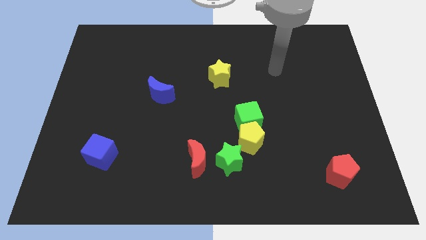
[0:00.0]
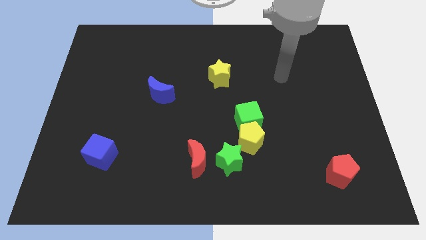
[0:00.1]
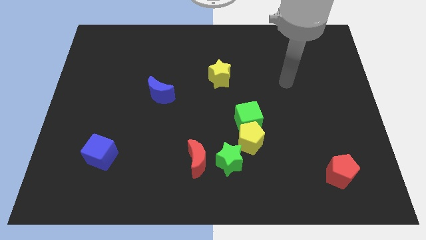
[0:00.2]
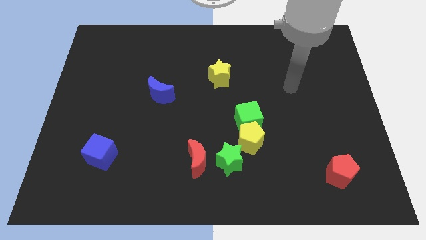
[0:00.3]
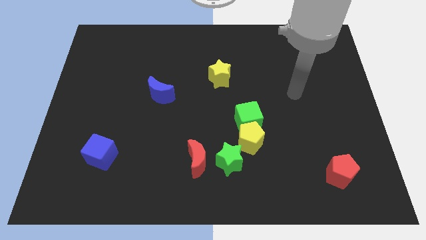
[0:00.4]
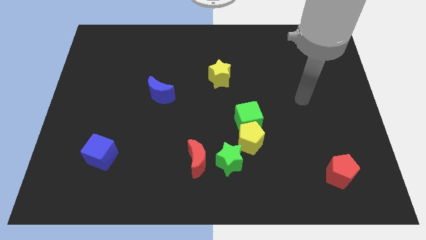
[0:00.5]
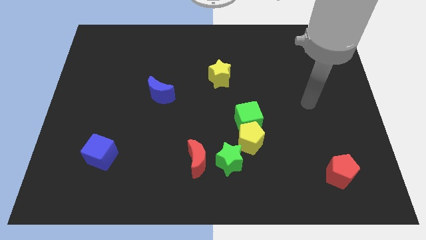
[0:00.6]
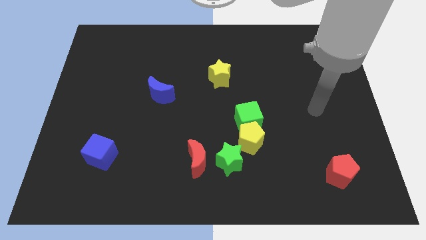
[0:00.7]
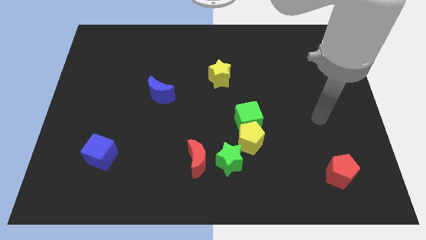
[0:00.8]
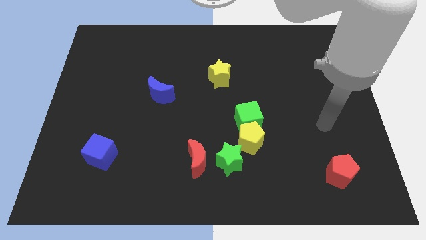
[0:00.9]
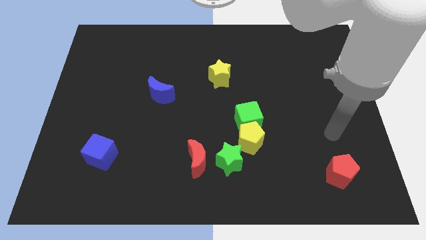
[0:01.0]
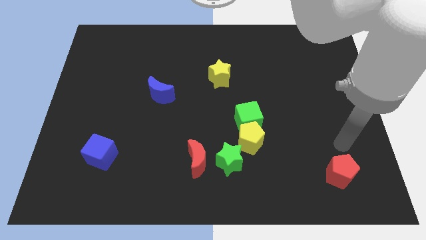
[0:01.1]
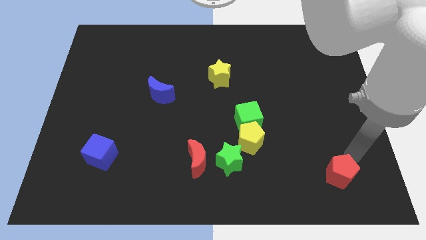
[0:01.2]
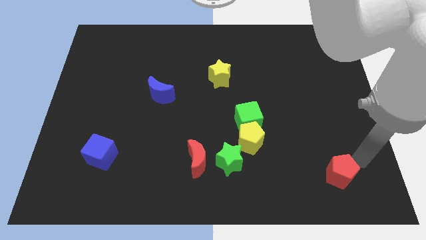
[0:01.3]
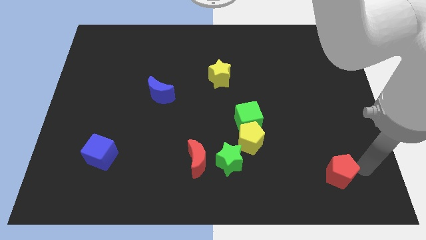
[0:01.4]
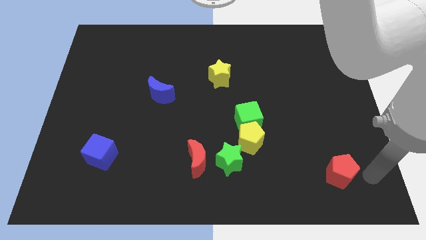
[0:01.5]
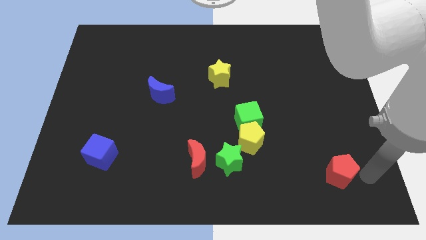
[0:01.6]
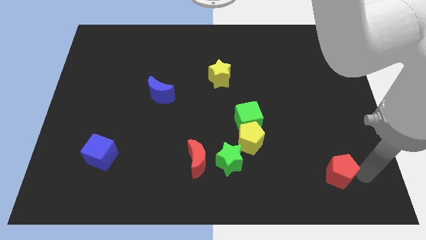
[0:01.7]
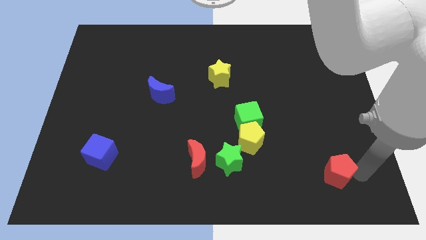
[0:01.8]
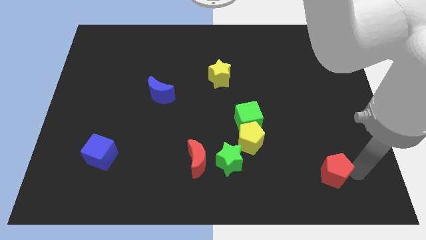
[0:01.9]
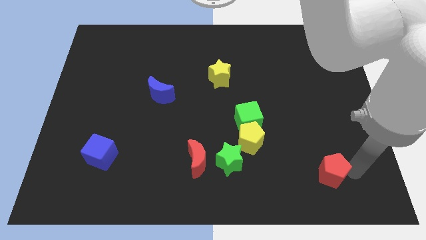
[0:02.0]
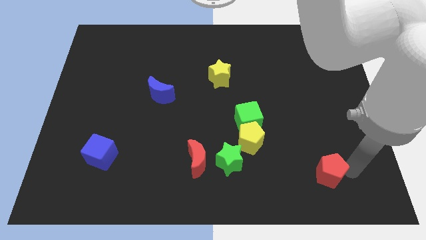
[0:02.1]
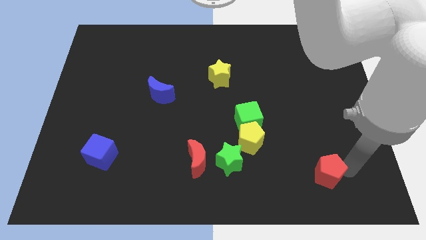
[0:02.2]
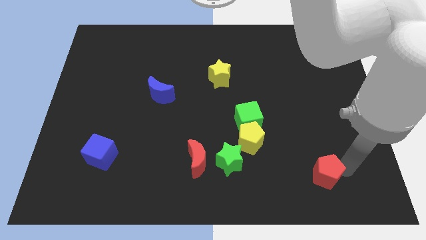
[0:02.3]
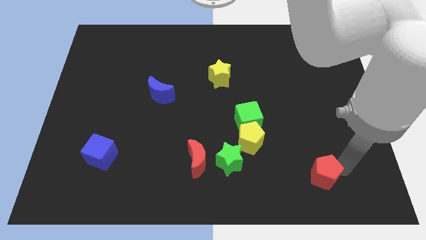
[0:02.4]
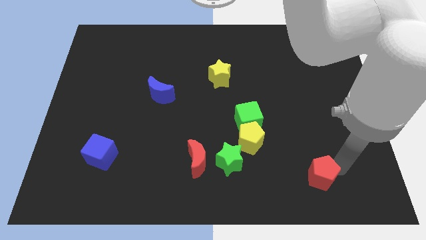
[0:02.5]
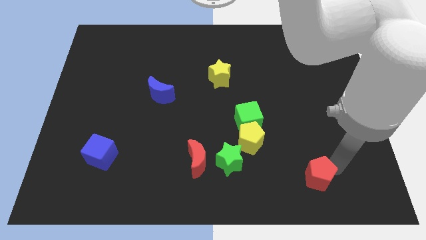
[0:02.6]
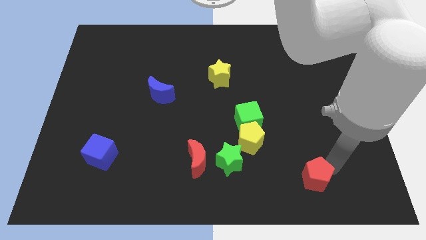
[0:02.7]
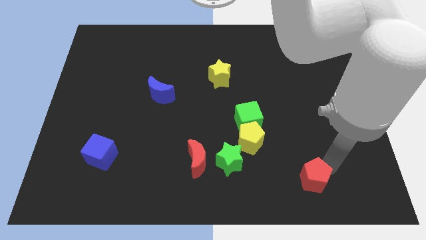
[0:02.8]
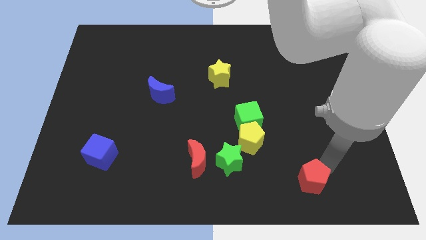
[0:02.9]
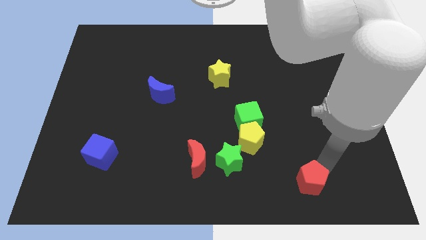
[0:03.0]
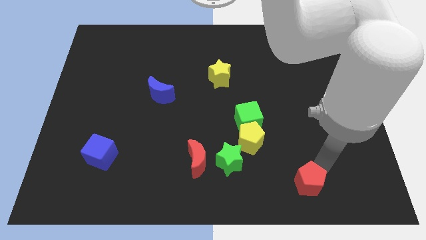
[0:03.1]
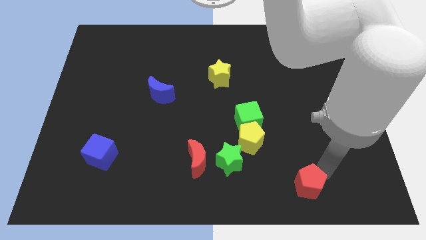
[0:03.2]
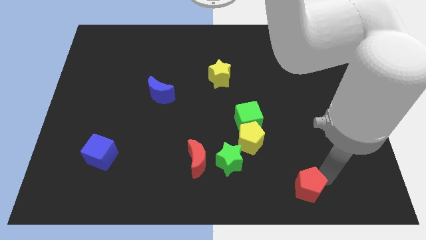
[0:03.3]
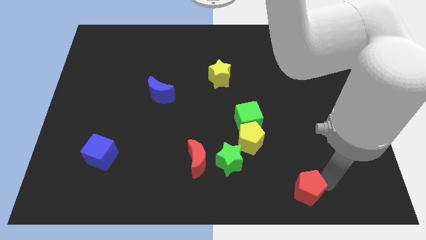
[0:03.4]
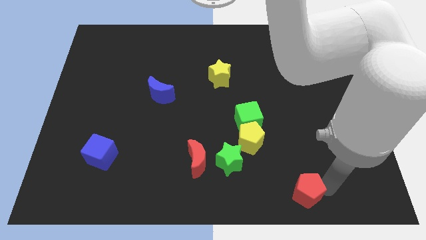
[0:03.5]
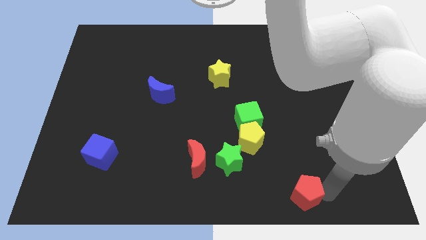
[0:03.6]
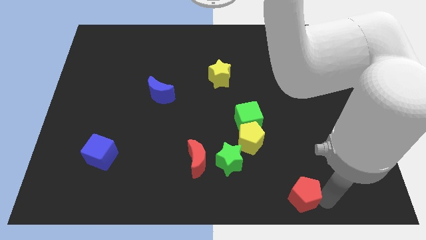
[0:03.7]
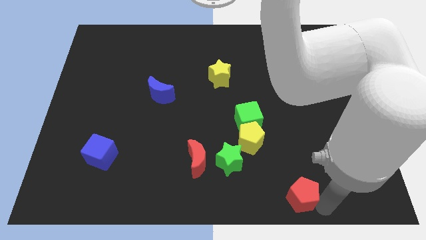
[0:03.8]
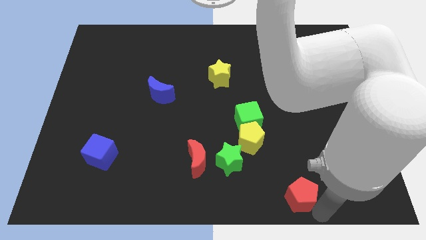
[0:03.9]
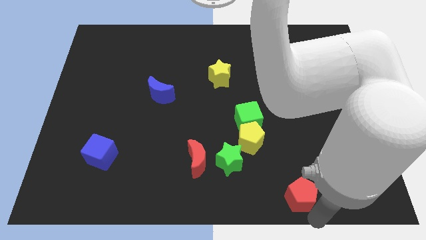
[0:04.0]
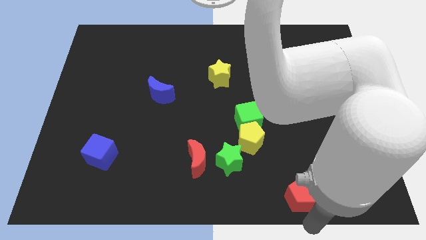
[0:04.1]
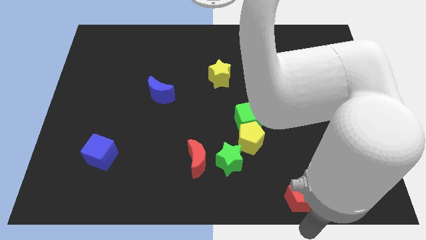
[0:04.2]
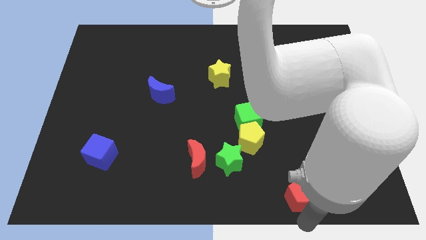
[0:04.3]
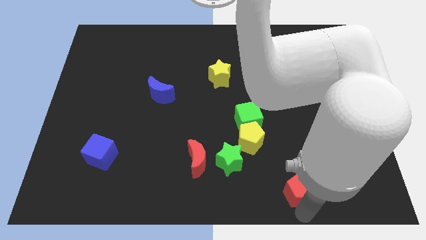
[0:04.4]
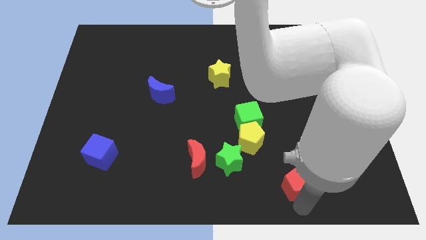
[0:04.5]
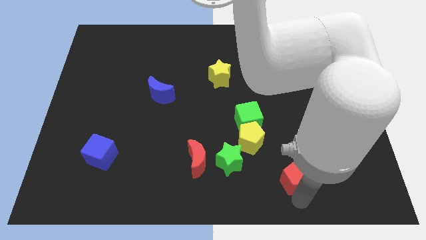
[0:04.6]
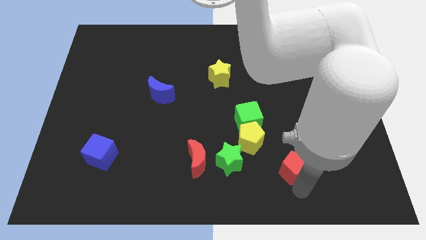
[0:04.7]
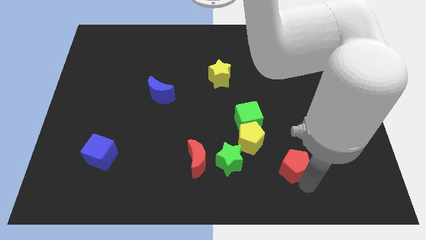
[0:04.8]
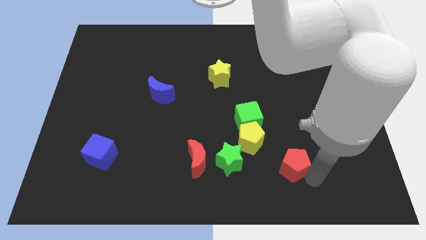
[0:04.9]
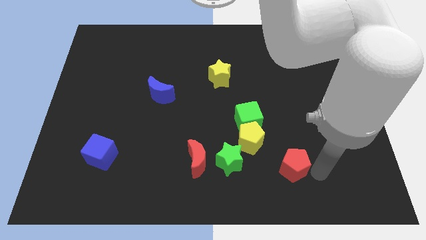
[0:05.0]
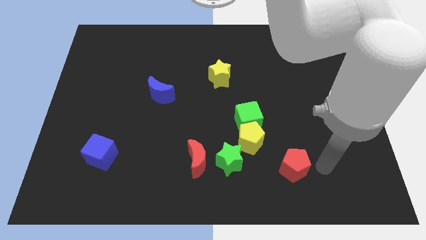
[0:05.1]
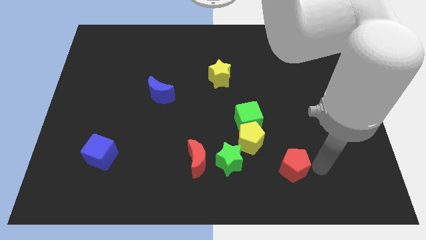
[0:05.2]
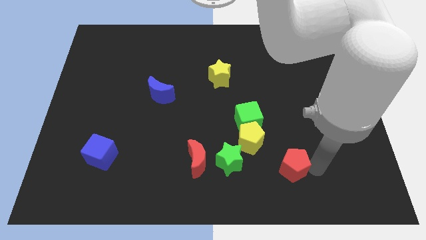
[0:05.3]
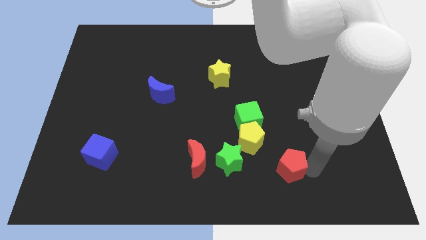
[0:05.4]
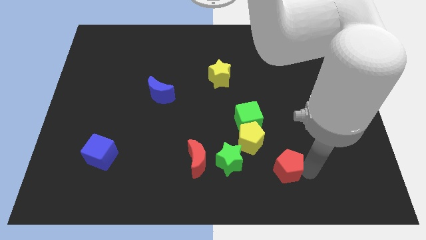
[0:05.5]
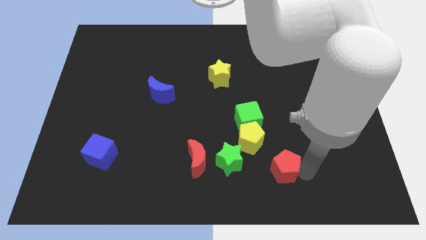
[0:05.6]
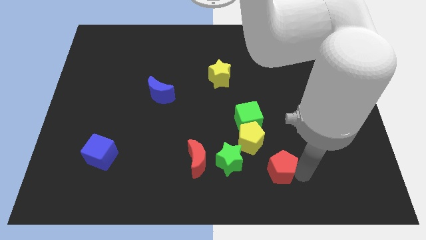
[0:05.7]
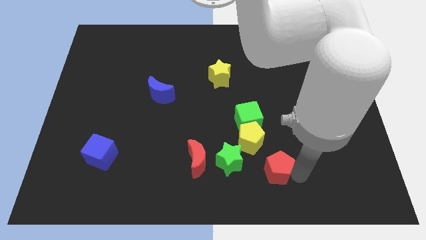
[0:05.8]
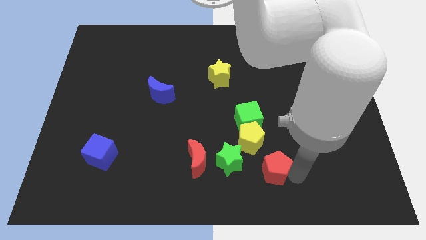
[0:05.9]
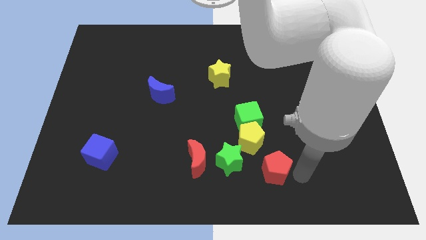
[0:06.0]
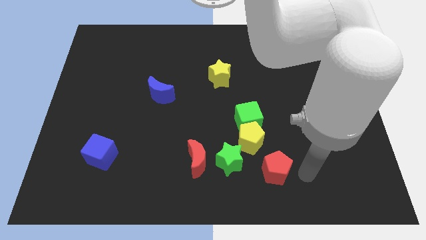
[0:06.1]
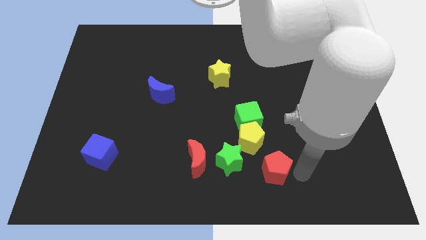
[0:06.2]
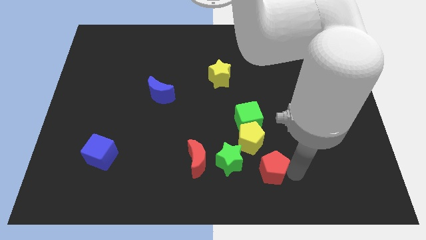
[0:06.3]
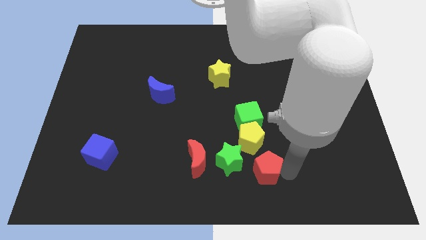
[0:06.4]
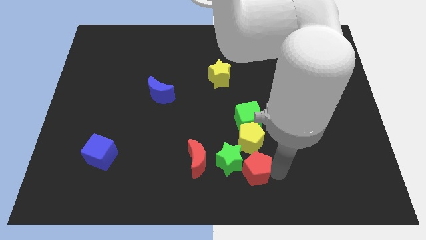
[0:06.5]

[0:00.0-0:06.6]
move the red pentagon towards the green star

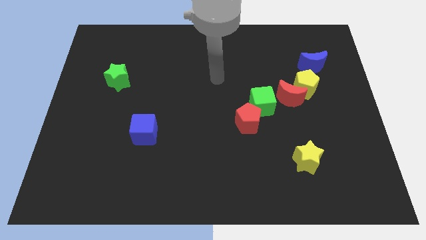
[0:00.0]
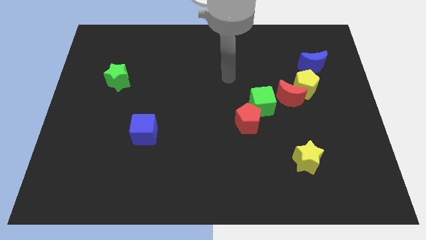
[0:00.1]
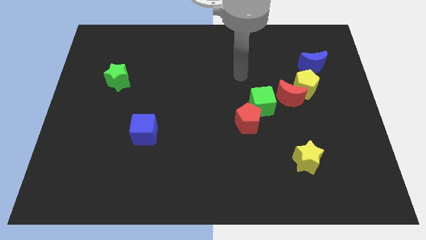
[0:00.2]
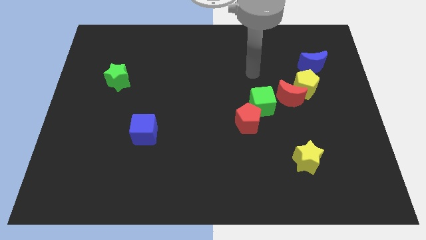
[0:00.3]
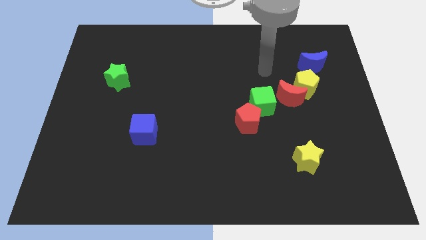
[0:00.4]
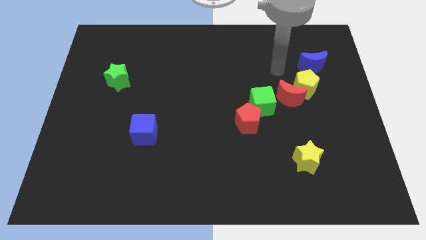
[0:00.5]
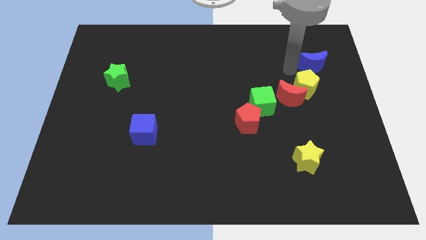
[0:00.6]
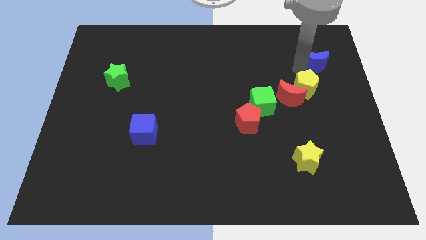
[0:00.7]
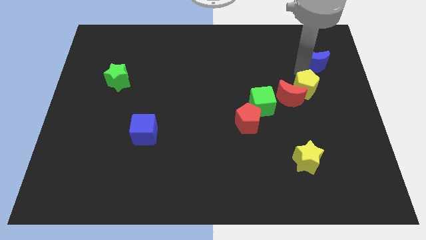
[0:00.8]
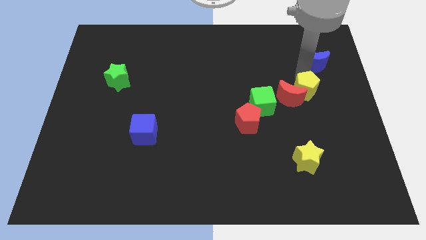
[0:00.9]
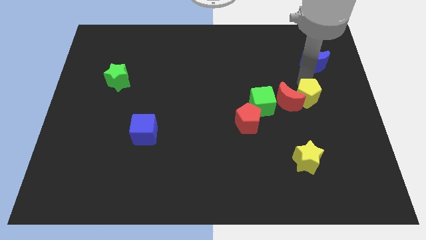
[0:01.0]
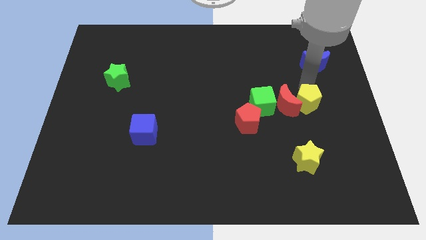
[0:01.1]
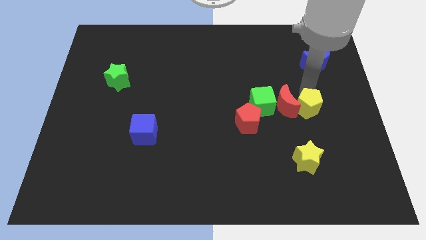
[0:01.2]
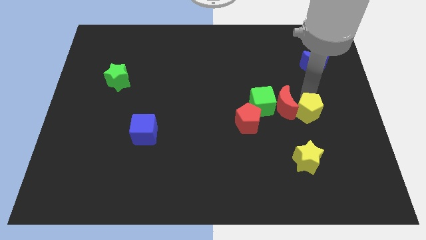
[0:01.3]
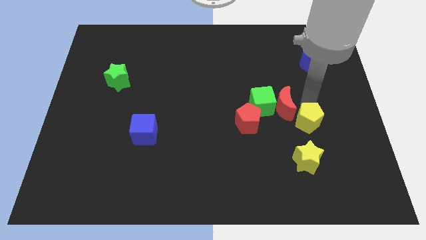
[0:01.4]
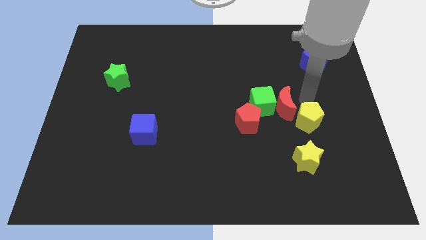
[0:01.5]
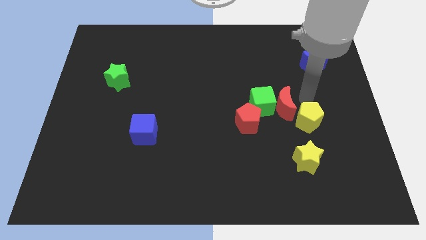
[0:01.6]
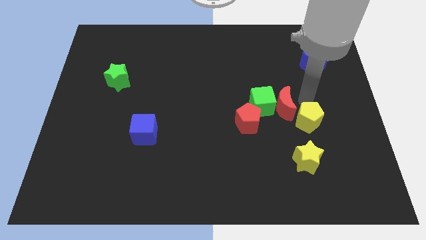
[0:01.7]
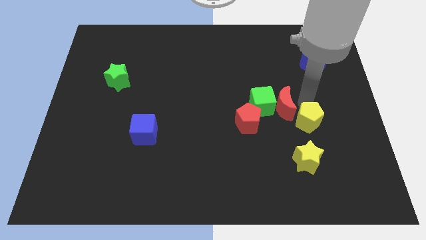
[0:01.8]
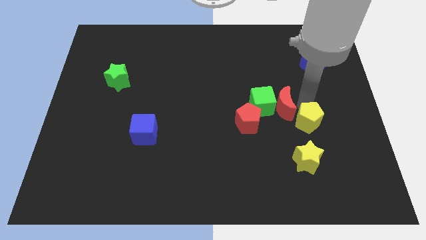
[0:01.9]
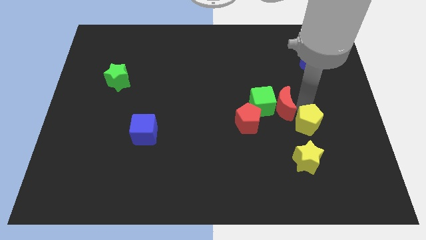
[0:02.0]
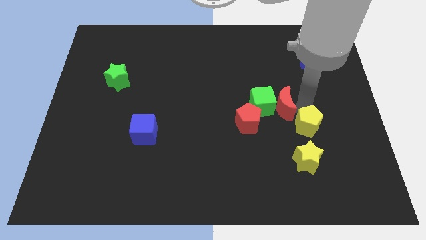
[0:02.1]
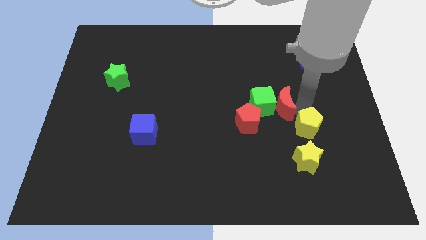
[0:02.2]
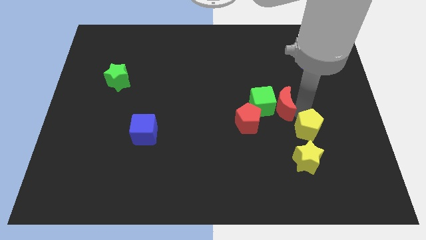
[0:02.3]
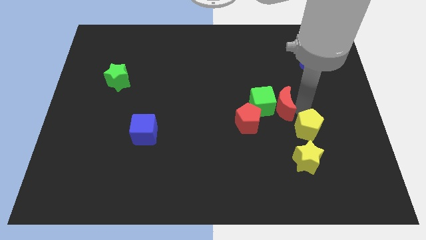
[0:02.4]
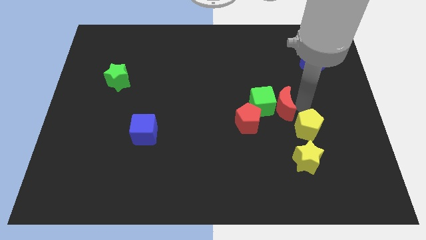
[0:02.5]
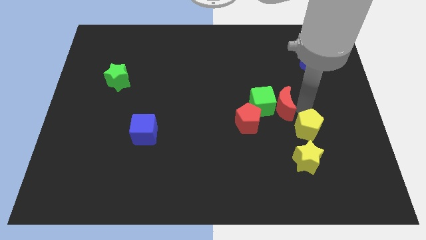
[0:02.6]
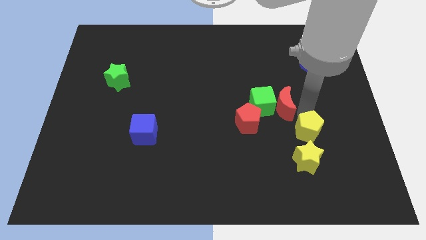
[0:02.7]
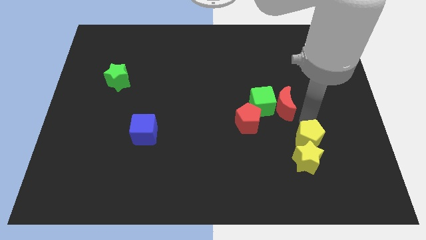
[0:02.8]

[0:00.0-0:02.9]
move the yellow pentagon towards the yellow star
